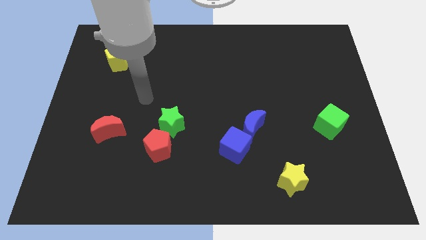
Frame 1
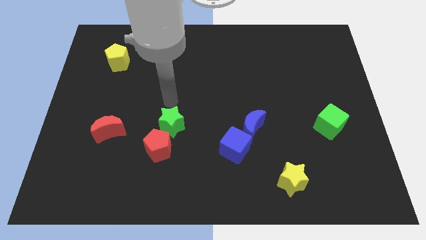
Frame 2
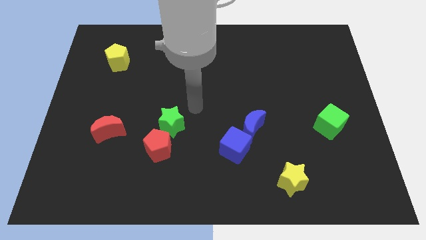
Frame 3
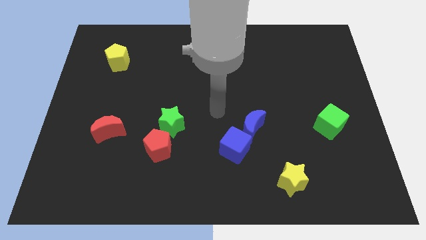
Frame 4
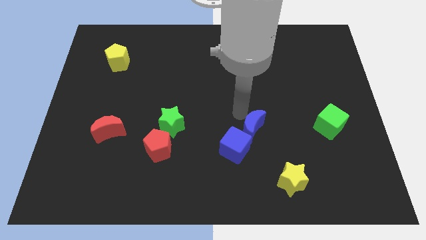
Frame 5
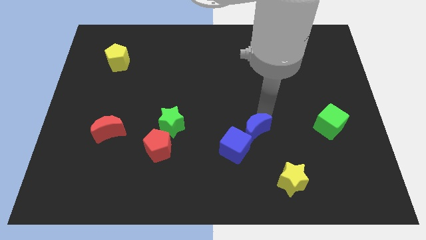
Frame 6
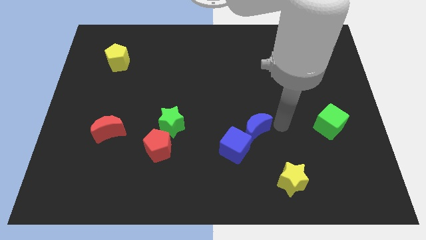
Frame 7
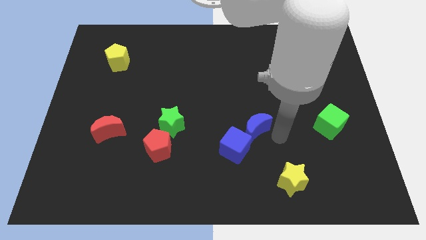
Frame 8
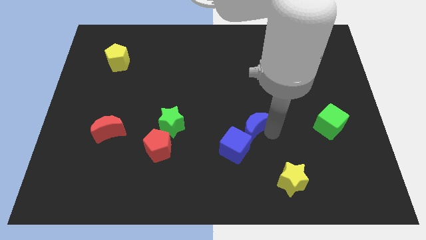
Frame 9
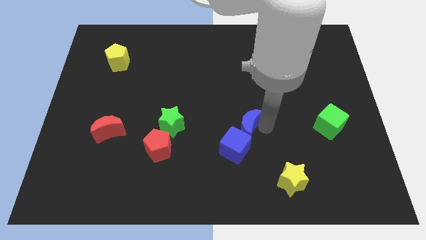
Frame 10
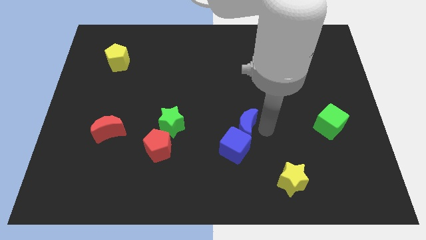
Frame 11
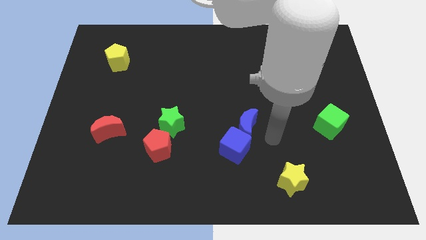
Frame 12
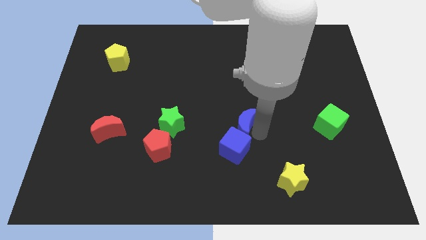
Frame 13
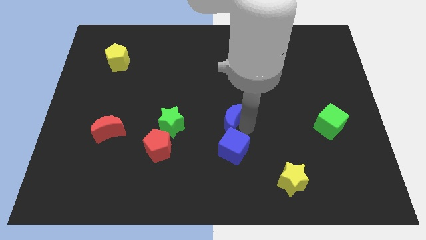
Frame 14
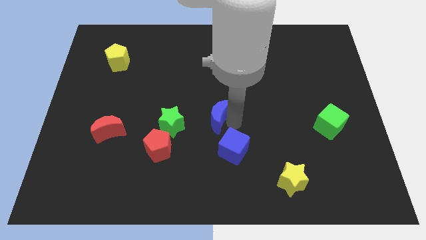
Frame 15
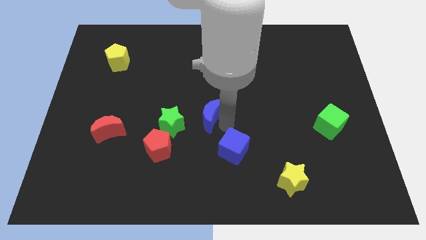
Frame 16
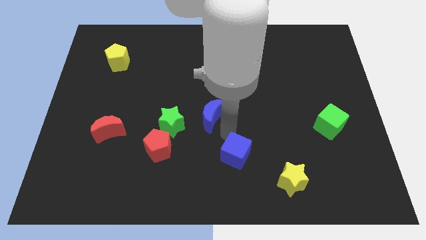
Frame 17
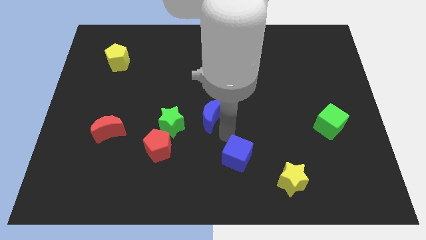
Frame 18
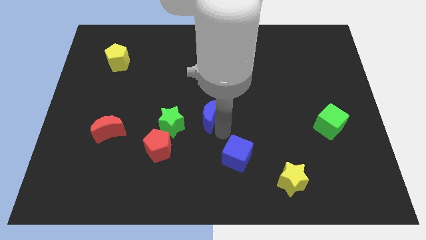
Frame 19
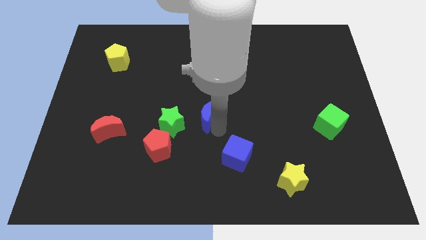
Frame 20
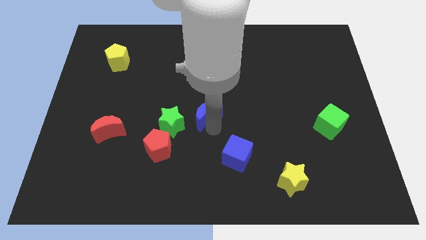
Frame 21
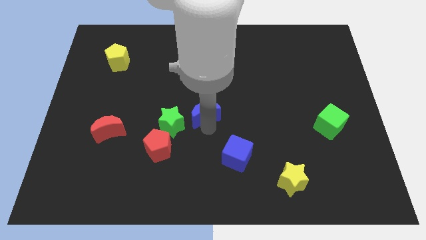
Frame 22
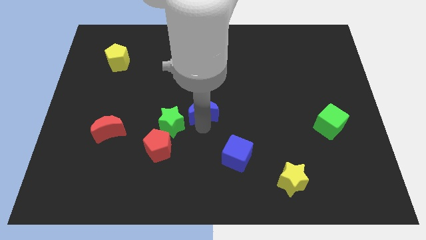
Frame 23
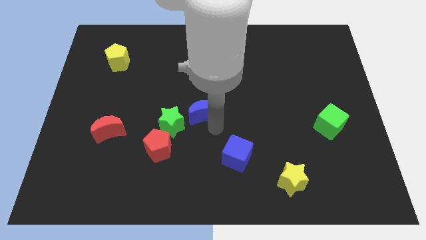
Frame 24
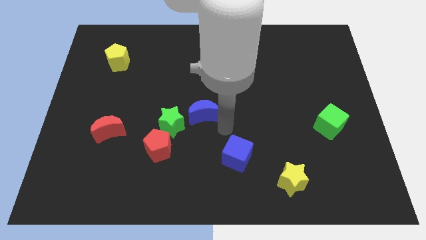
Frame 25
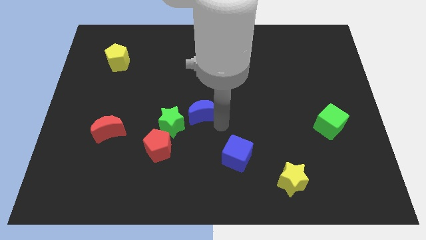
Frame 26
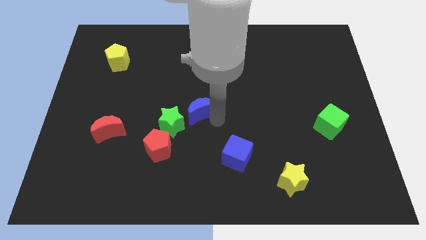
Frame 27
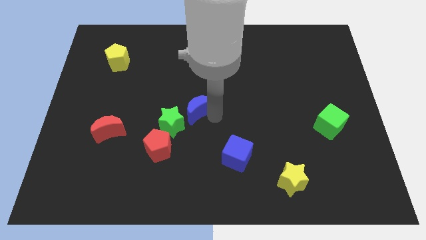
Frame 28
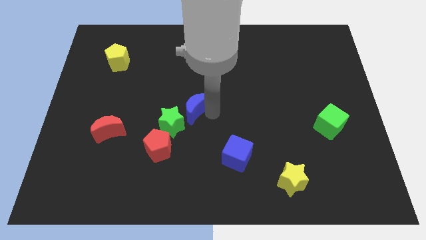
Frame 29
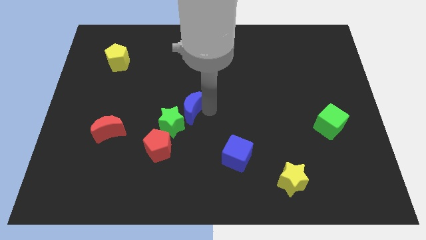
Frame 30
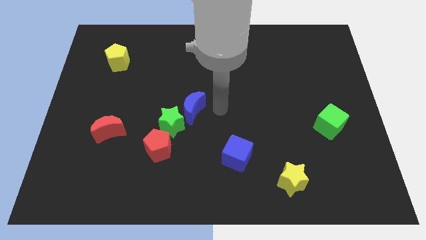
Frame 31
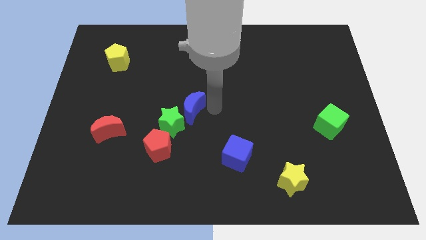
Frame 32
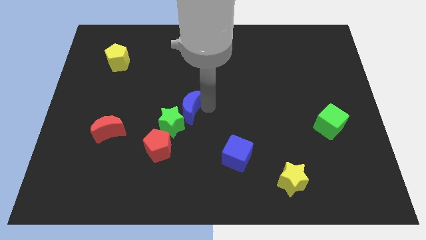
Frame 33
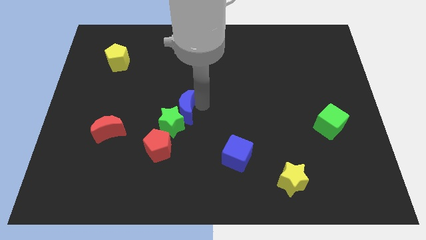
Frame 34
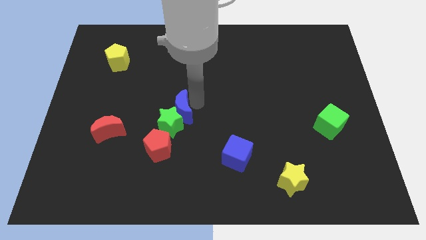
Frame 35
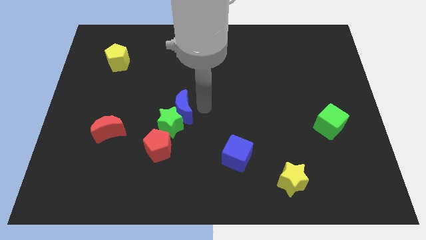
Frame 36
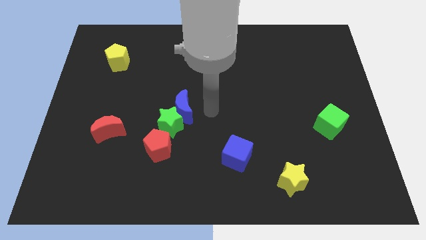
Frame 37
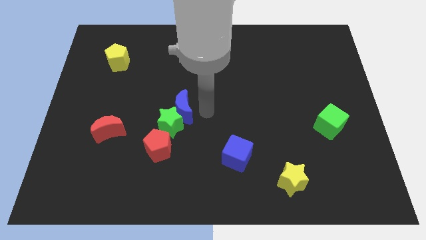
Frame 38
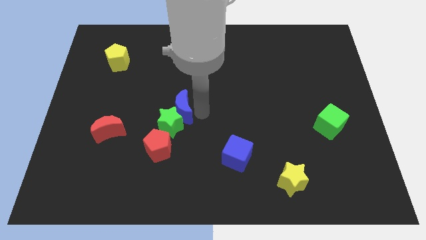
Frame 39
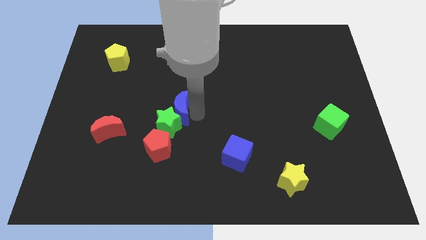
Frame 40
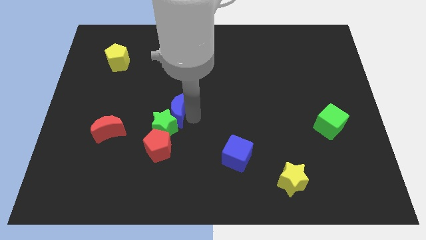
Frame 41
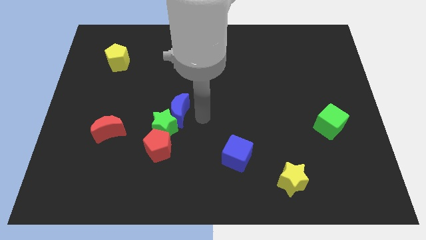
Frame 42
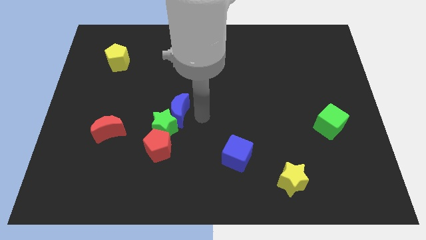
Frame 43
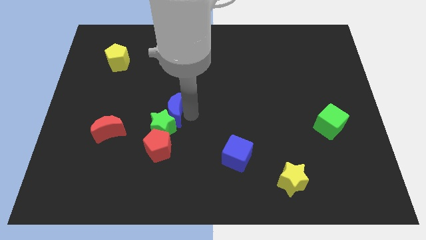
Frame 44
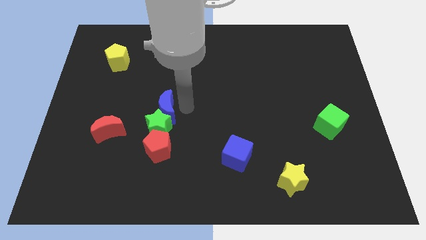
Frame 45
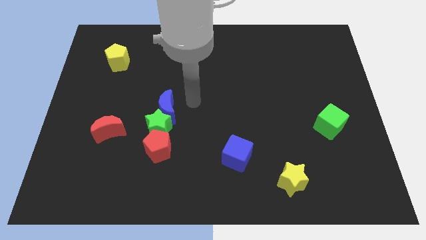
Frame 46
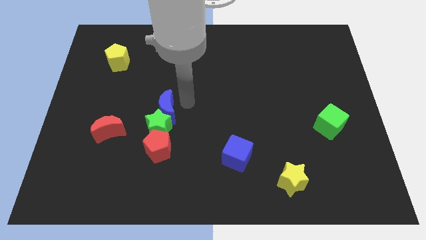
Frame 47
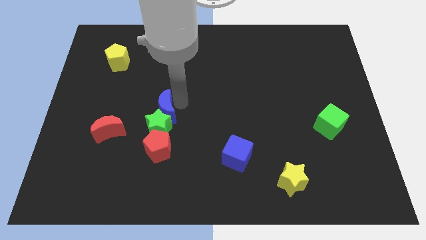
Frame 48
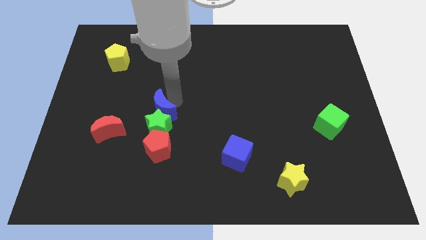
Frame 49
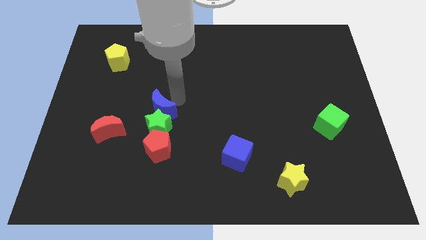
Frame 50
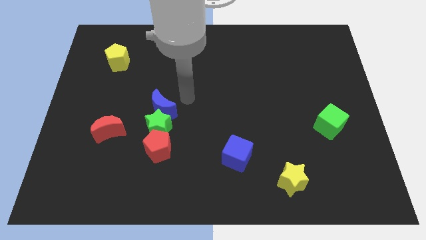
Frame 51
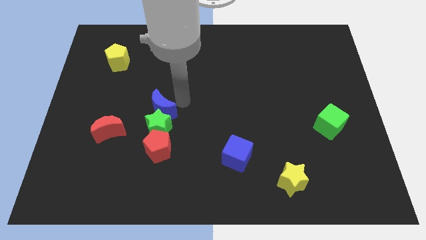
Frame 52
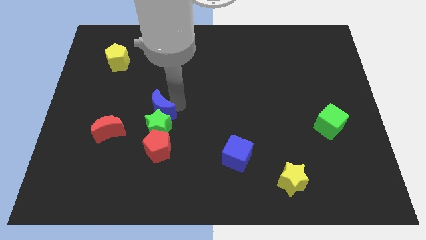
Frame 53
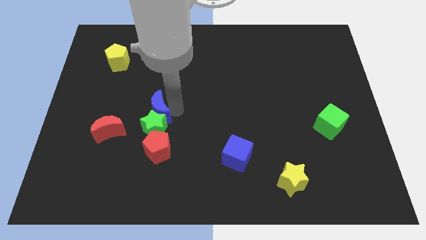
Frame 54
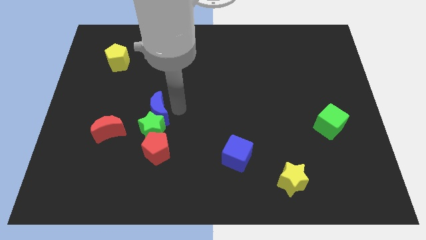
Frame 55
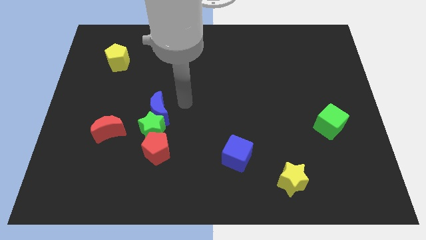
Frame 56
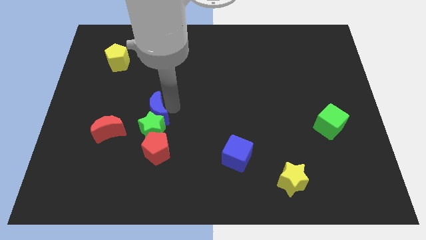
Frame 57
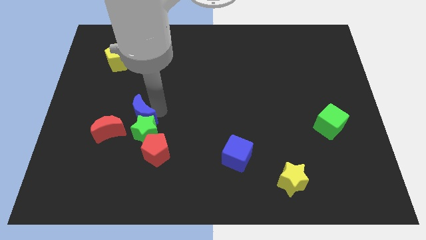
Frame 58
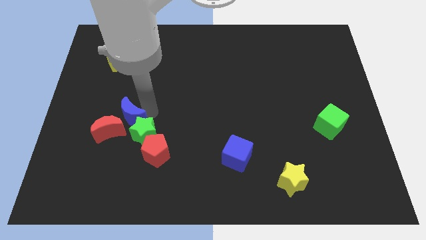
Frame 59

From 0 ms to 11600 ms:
push the blue moon towards the red moon

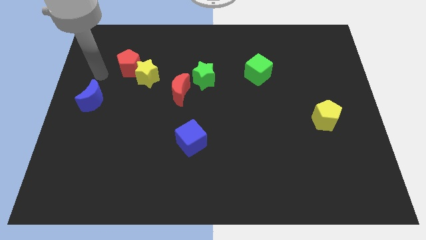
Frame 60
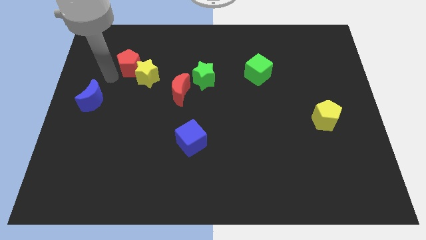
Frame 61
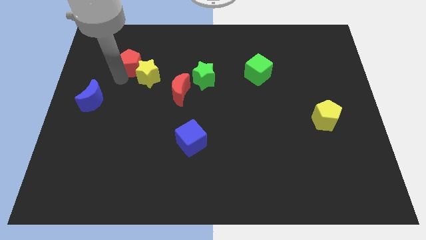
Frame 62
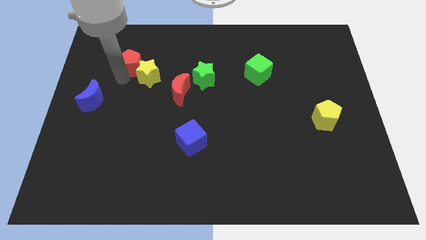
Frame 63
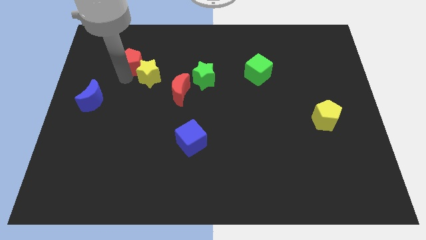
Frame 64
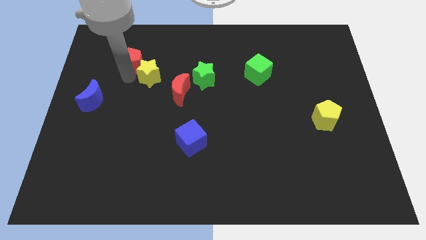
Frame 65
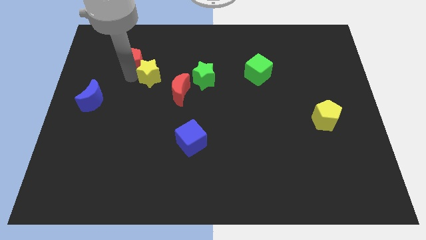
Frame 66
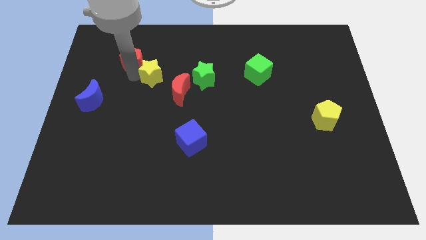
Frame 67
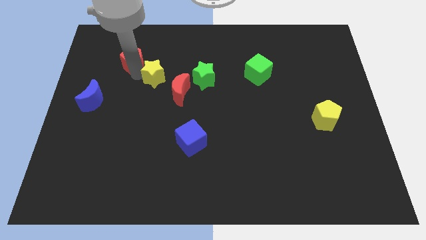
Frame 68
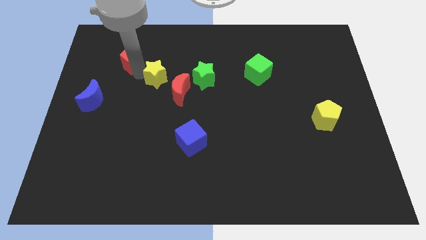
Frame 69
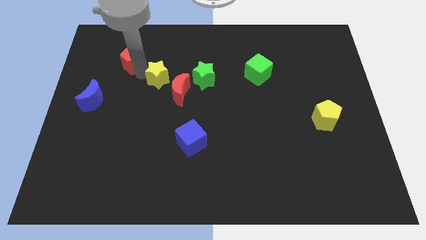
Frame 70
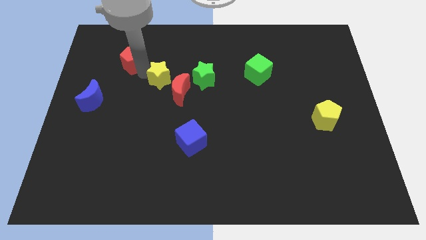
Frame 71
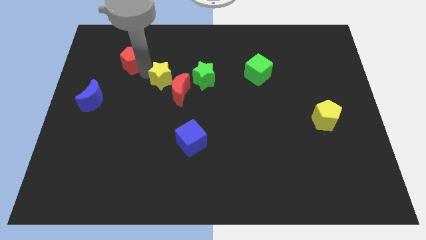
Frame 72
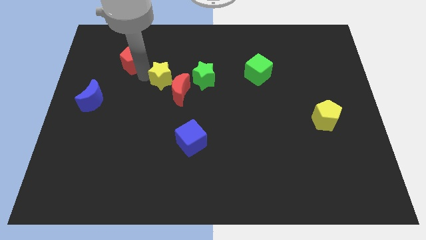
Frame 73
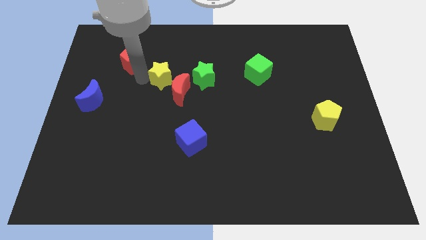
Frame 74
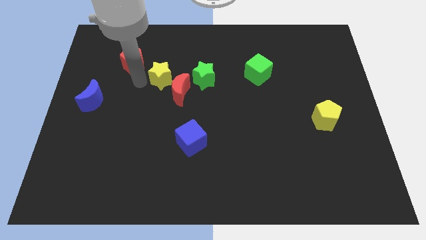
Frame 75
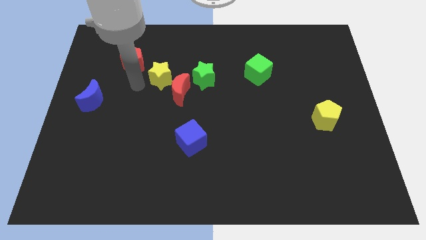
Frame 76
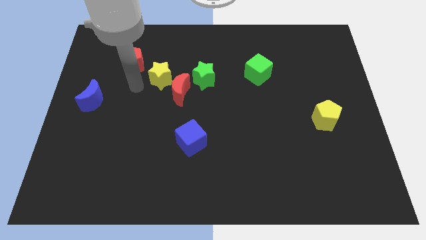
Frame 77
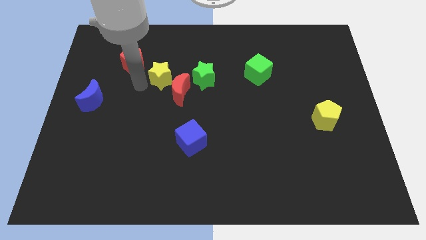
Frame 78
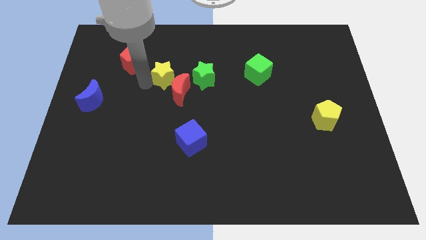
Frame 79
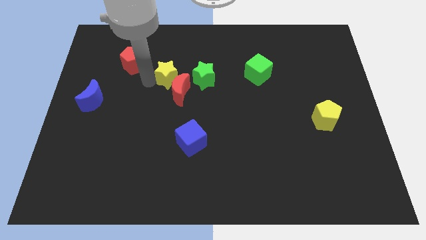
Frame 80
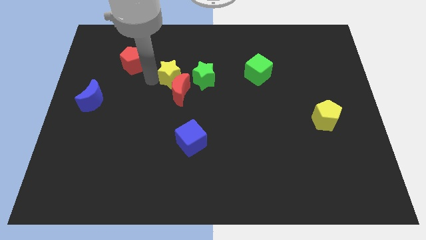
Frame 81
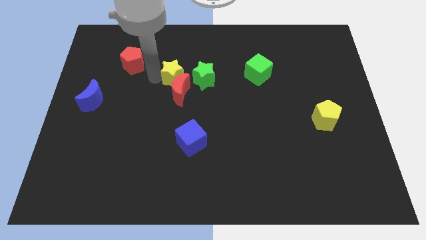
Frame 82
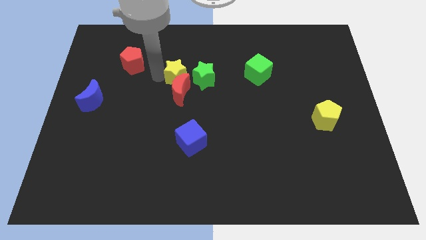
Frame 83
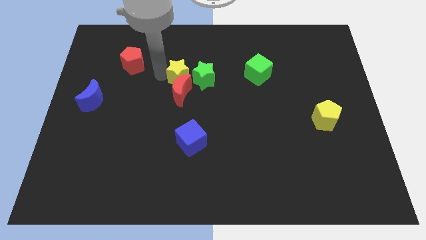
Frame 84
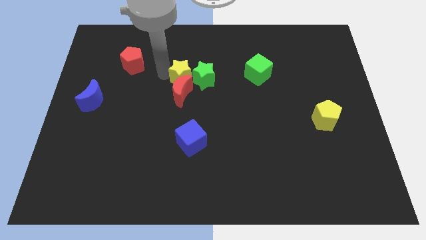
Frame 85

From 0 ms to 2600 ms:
slide the yellow star next to the green star

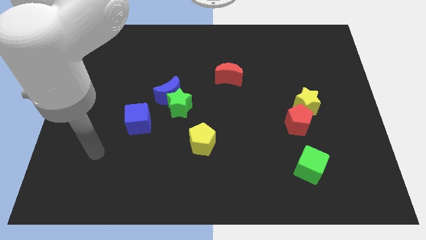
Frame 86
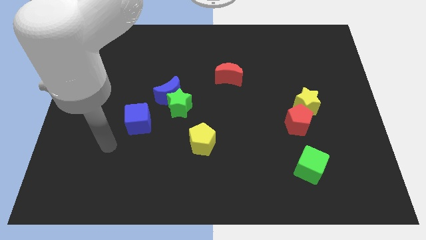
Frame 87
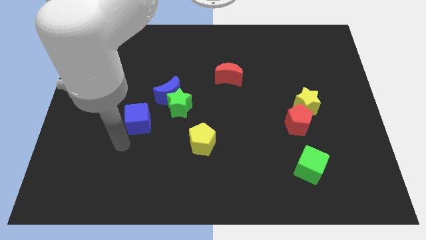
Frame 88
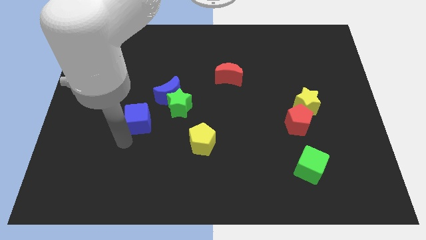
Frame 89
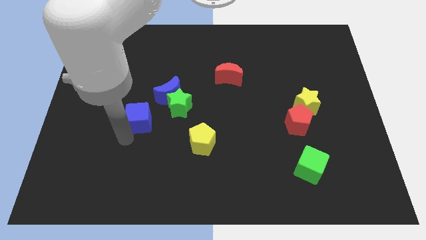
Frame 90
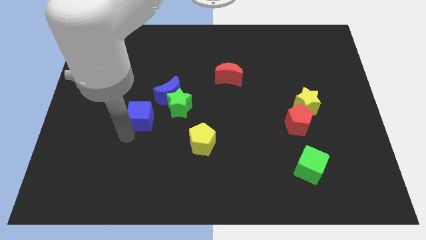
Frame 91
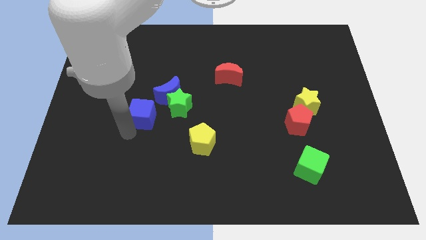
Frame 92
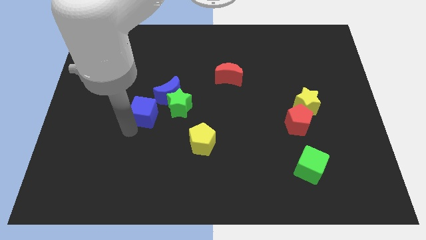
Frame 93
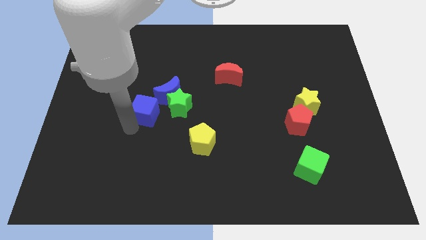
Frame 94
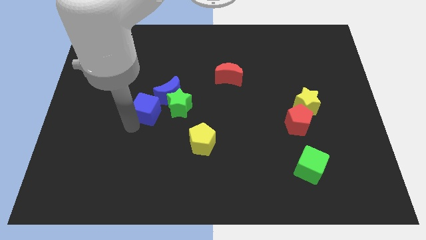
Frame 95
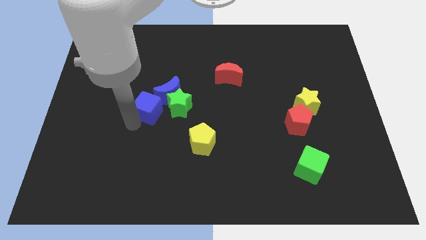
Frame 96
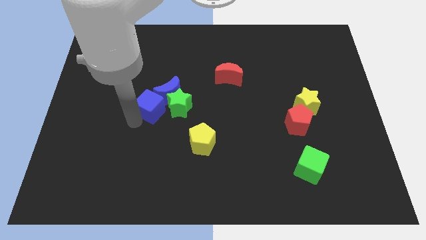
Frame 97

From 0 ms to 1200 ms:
move the blue cube towards the blue moon
